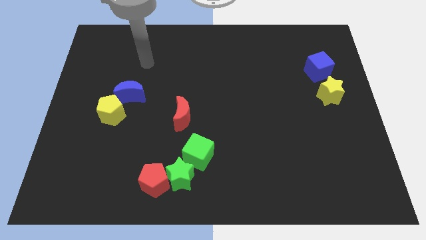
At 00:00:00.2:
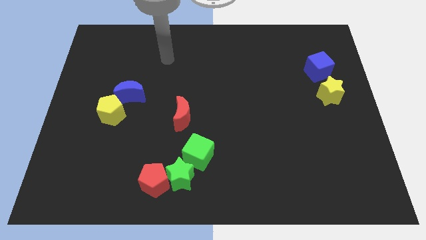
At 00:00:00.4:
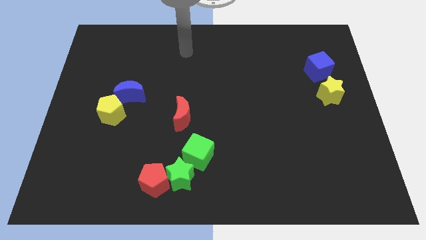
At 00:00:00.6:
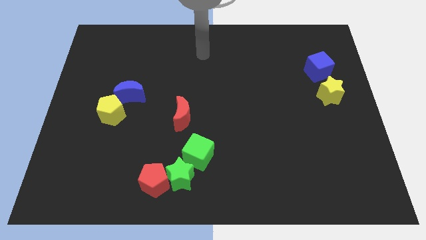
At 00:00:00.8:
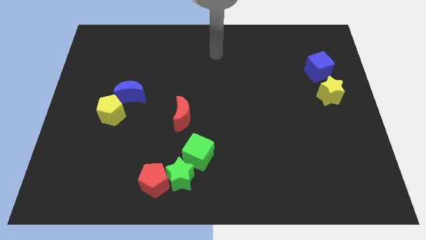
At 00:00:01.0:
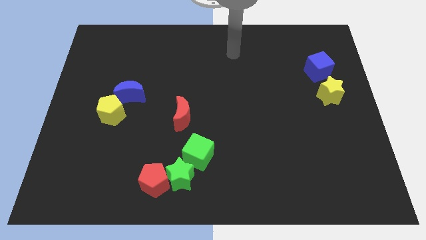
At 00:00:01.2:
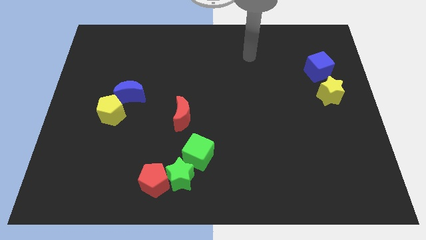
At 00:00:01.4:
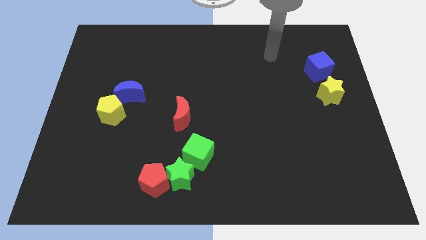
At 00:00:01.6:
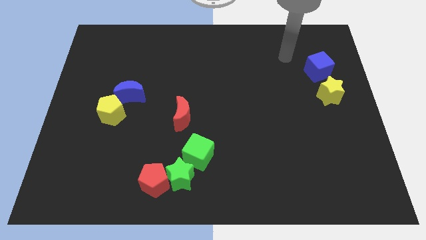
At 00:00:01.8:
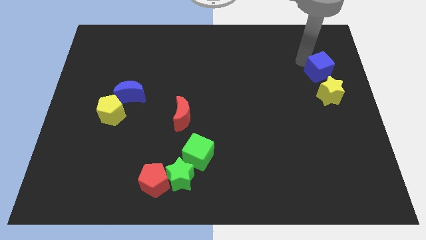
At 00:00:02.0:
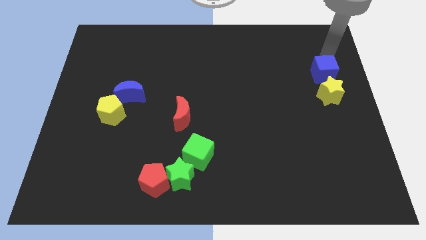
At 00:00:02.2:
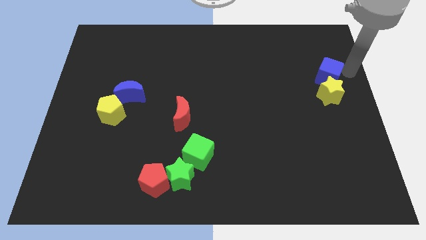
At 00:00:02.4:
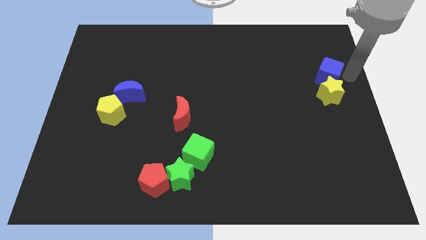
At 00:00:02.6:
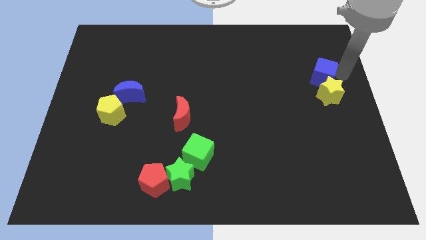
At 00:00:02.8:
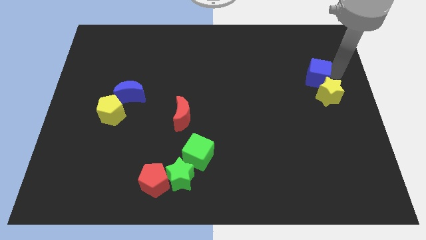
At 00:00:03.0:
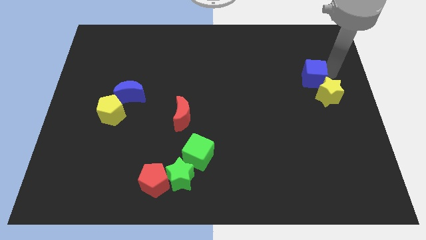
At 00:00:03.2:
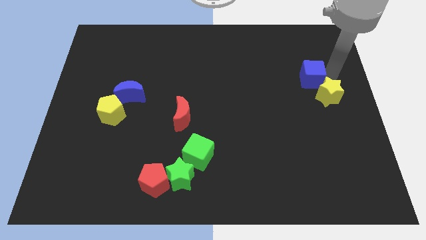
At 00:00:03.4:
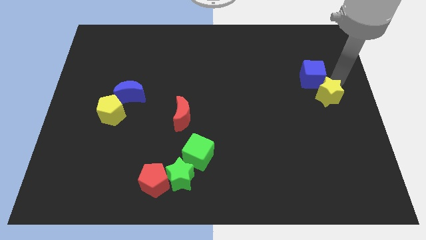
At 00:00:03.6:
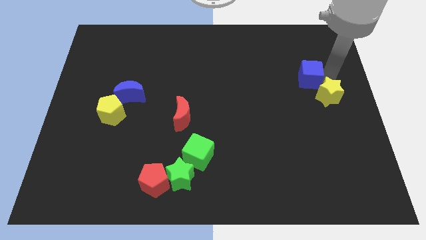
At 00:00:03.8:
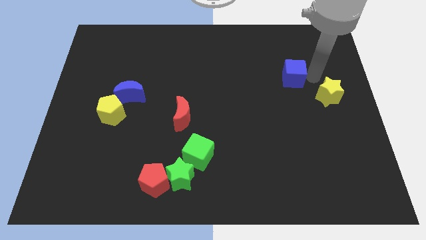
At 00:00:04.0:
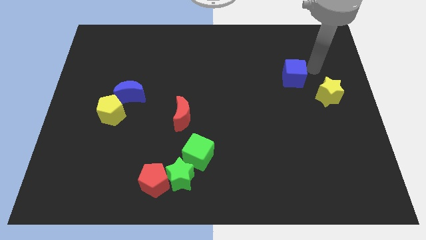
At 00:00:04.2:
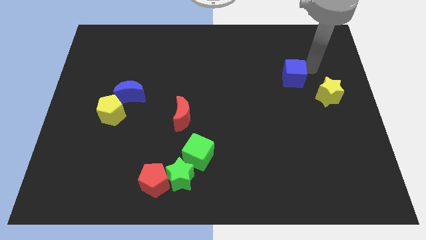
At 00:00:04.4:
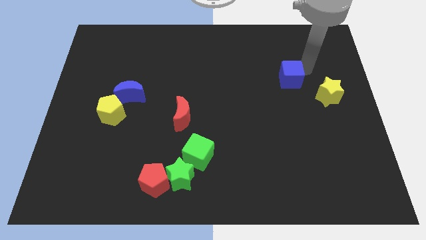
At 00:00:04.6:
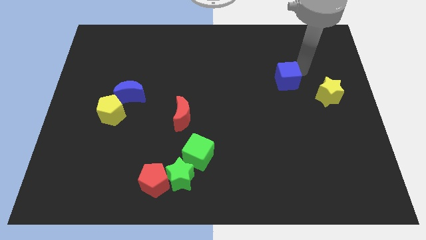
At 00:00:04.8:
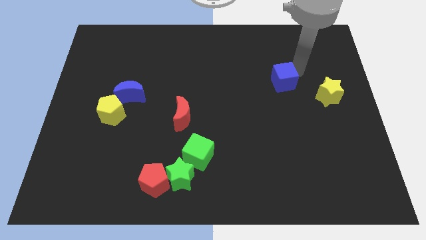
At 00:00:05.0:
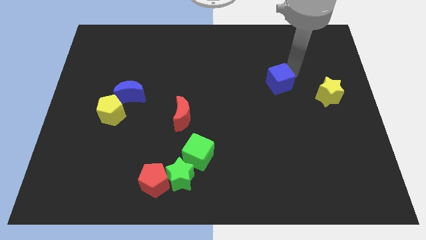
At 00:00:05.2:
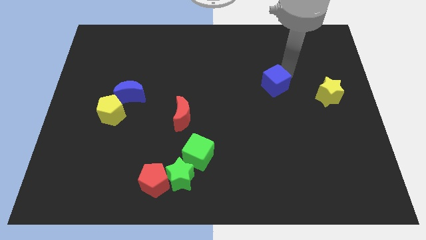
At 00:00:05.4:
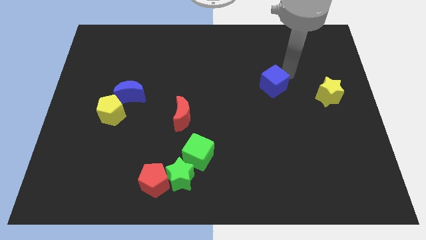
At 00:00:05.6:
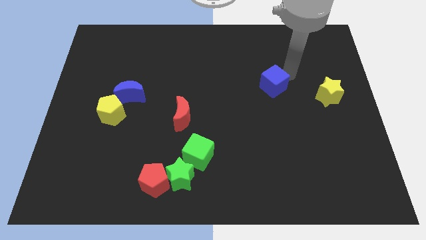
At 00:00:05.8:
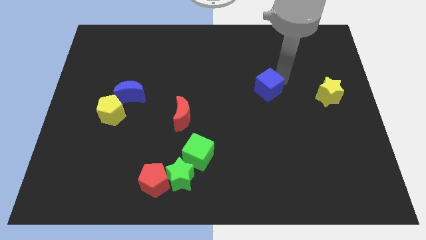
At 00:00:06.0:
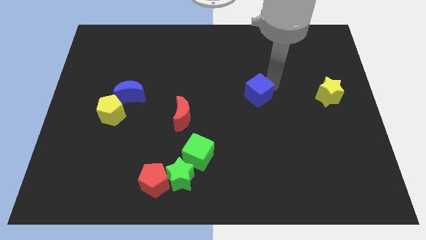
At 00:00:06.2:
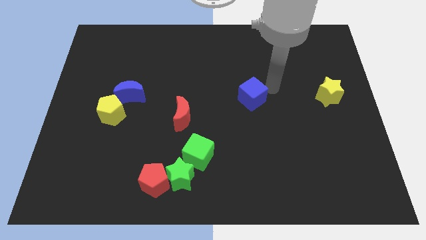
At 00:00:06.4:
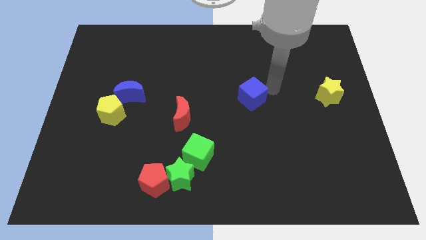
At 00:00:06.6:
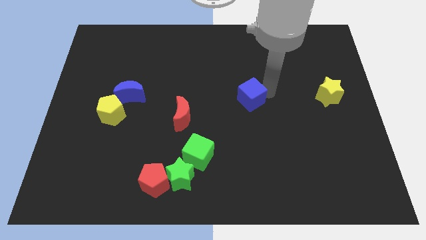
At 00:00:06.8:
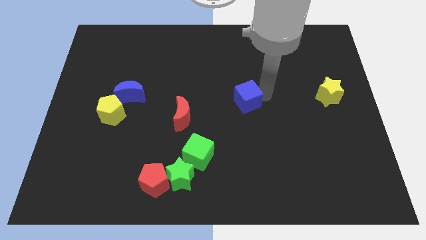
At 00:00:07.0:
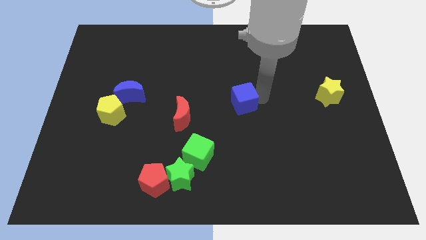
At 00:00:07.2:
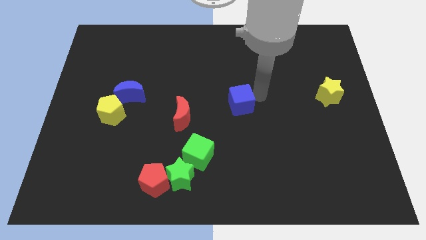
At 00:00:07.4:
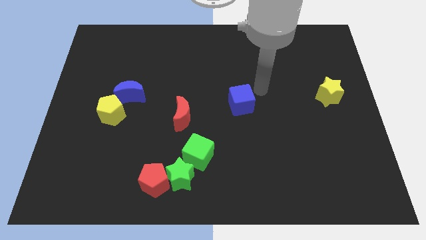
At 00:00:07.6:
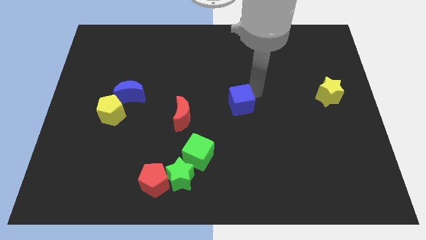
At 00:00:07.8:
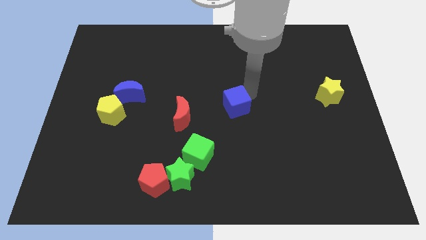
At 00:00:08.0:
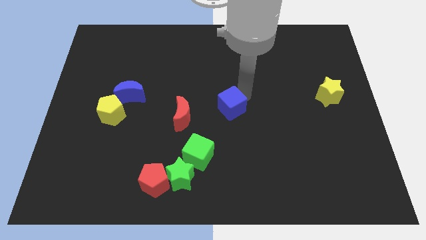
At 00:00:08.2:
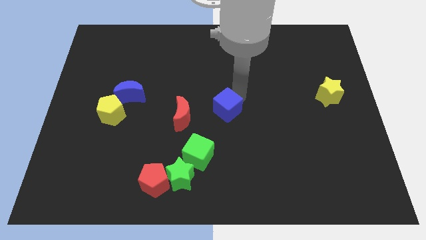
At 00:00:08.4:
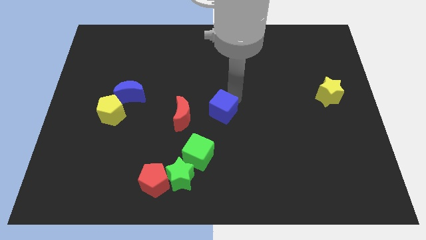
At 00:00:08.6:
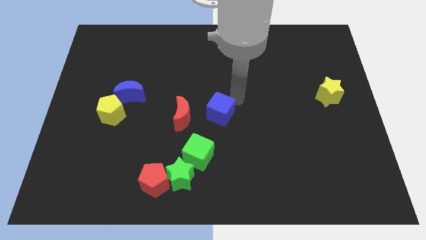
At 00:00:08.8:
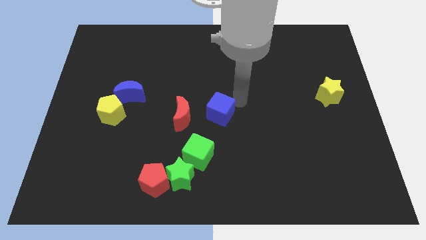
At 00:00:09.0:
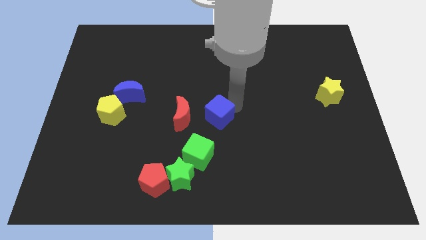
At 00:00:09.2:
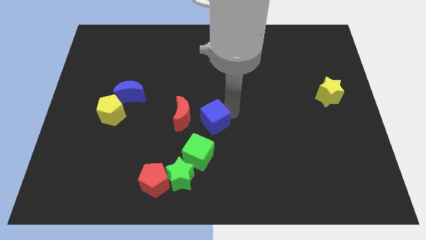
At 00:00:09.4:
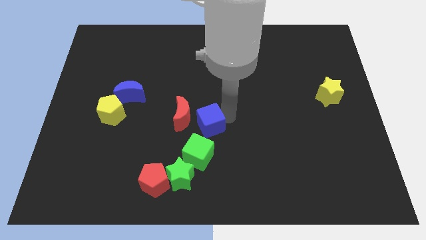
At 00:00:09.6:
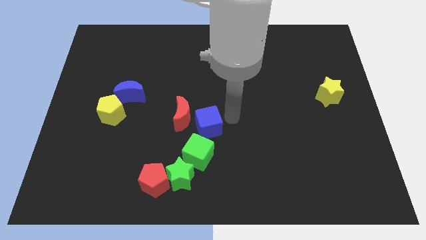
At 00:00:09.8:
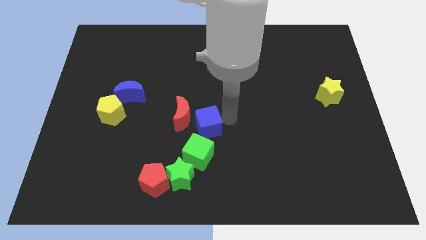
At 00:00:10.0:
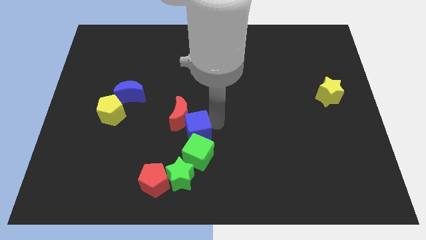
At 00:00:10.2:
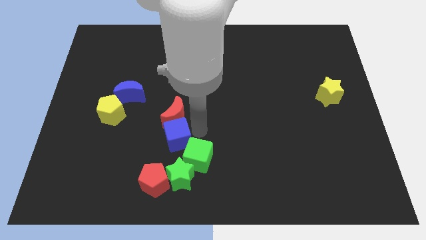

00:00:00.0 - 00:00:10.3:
slide the blue cube diagonally down and to the left of the red moon

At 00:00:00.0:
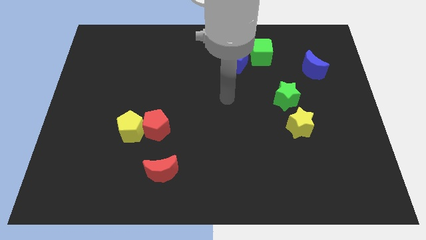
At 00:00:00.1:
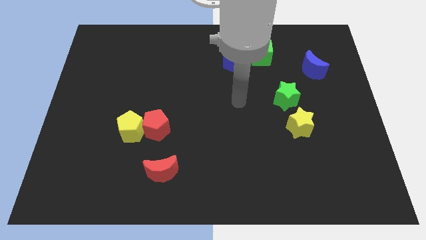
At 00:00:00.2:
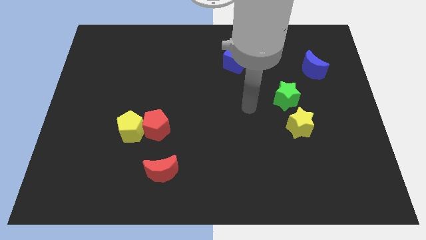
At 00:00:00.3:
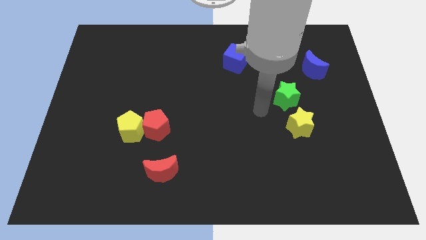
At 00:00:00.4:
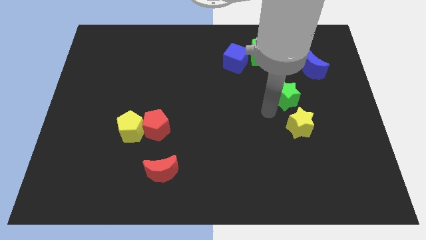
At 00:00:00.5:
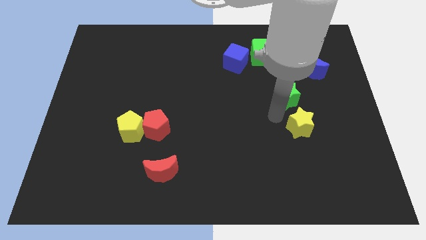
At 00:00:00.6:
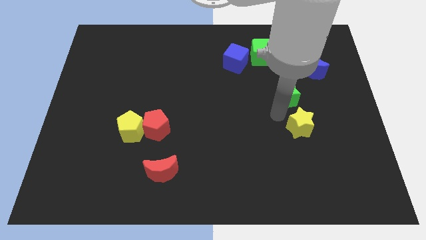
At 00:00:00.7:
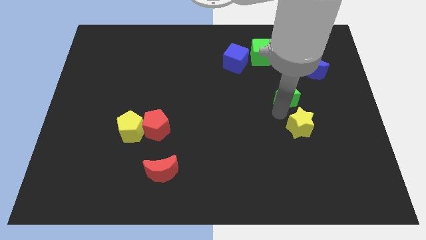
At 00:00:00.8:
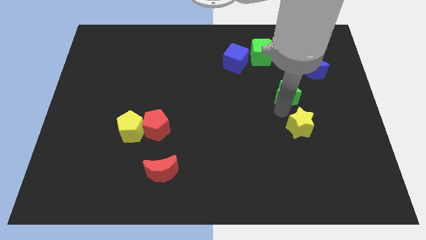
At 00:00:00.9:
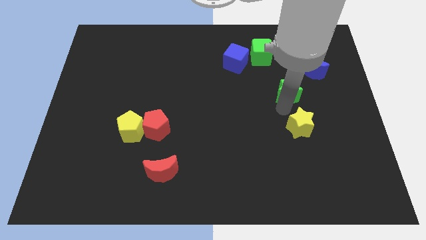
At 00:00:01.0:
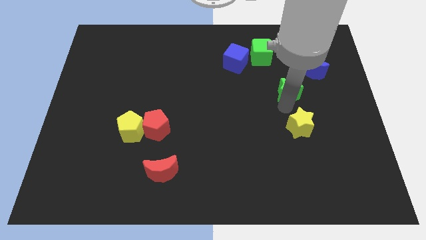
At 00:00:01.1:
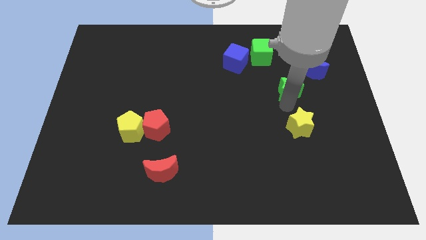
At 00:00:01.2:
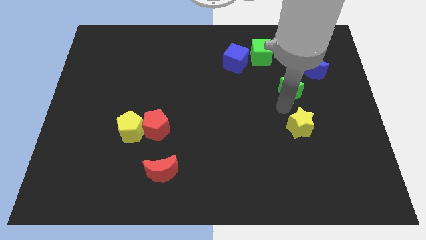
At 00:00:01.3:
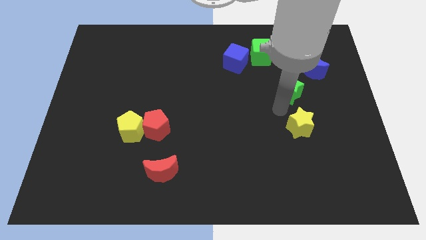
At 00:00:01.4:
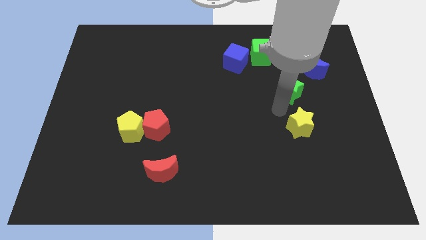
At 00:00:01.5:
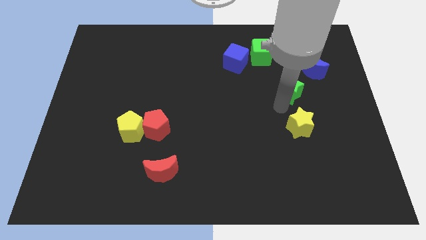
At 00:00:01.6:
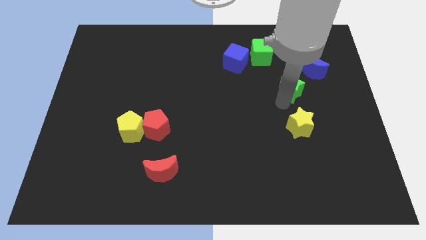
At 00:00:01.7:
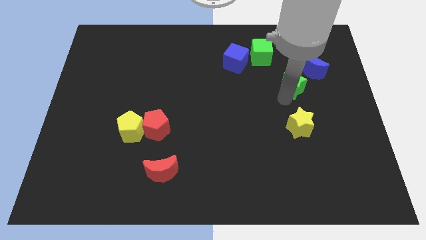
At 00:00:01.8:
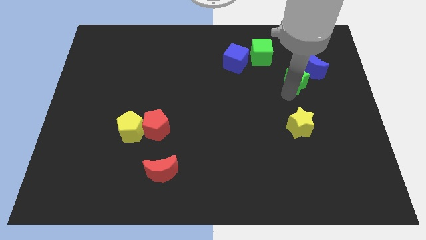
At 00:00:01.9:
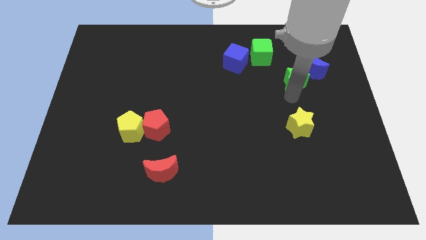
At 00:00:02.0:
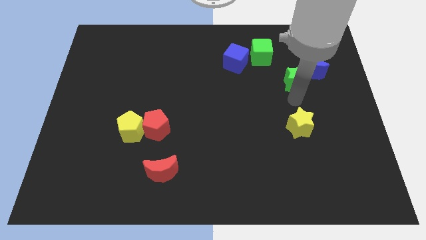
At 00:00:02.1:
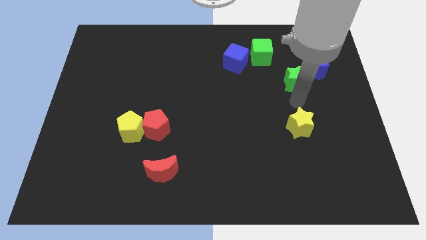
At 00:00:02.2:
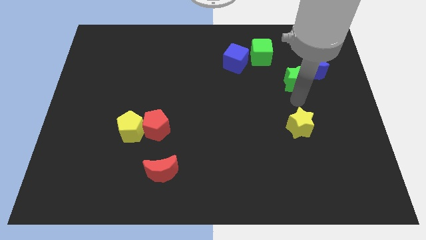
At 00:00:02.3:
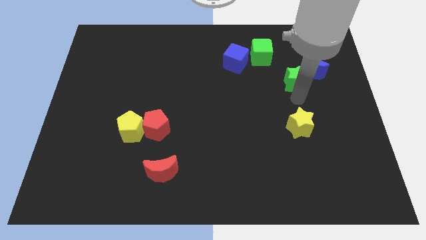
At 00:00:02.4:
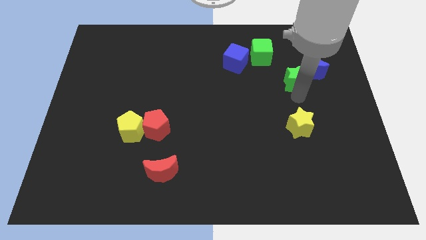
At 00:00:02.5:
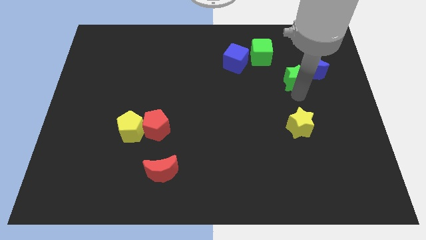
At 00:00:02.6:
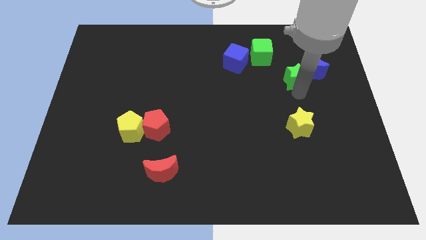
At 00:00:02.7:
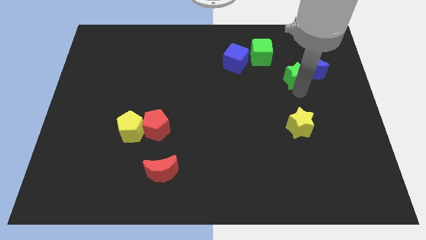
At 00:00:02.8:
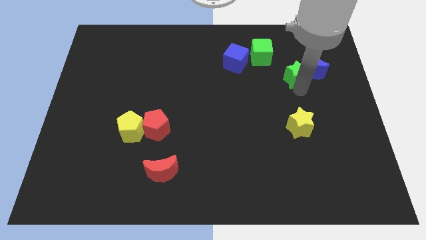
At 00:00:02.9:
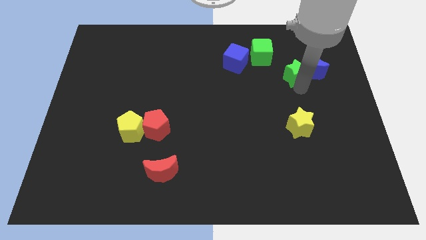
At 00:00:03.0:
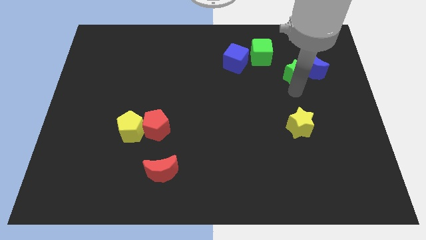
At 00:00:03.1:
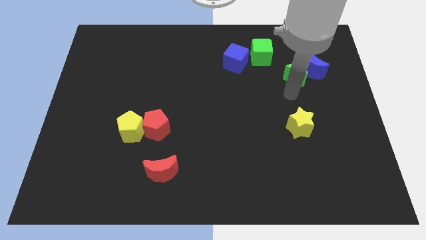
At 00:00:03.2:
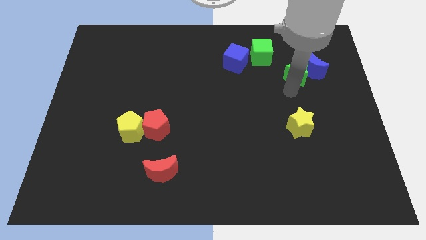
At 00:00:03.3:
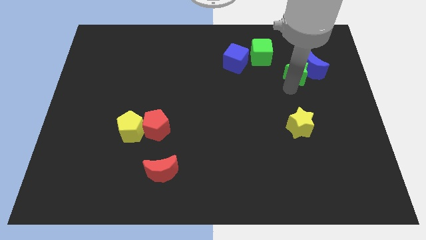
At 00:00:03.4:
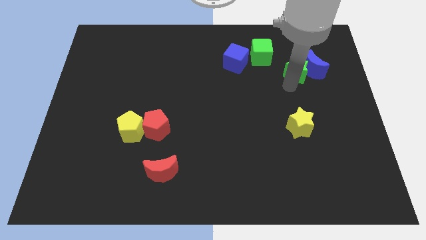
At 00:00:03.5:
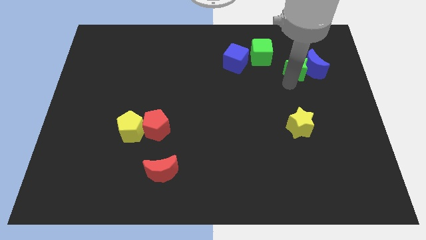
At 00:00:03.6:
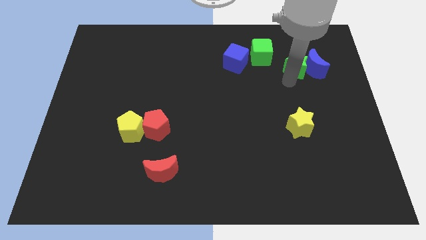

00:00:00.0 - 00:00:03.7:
put the green star to the right of the green cube
